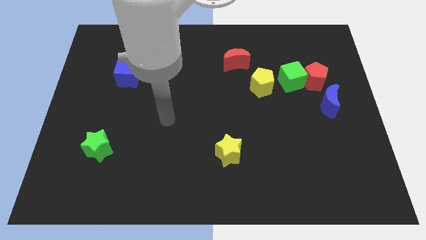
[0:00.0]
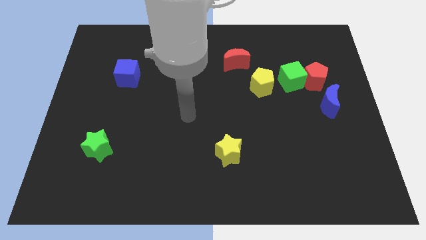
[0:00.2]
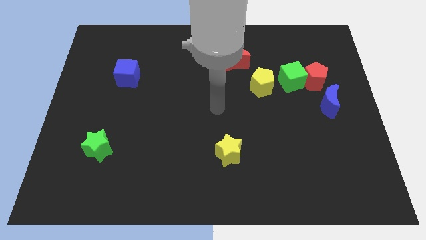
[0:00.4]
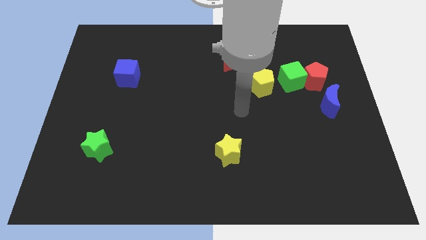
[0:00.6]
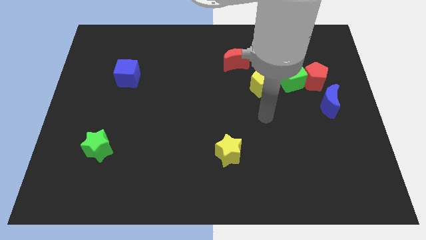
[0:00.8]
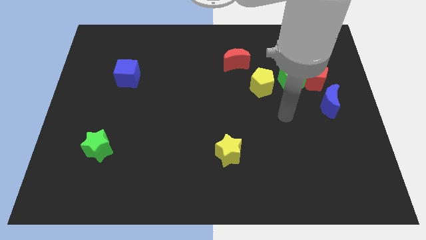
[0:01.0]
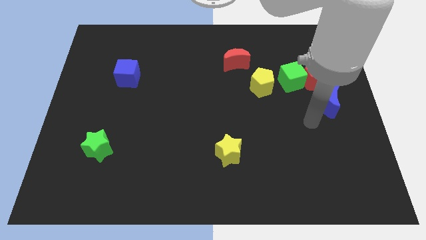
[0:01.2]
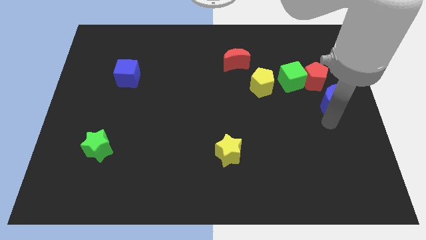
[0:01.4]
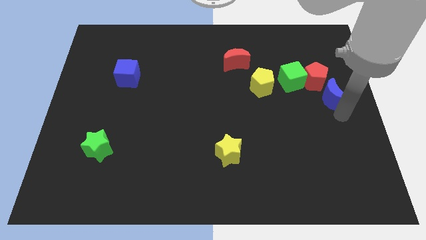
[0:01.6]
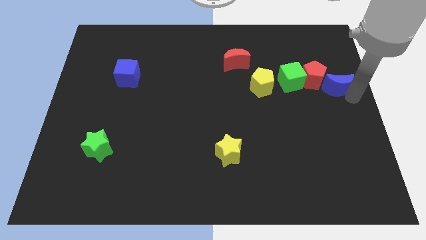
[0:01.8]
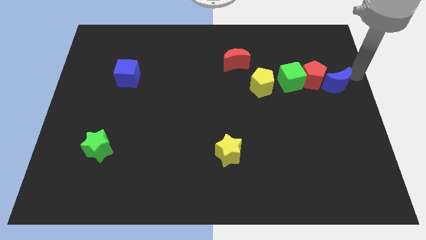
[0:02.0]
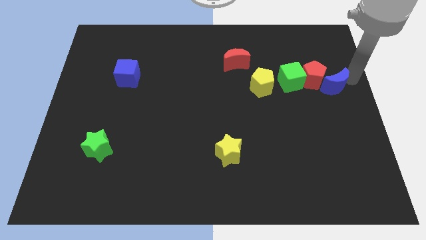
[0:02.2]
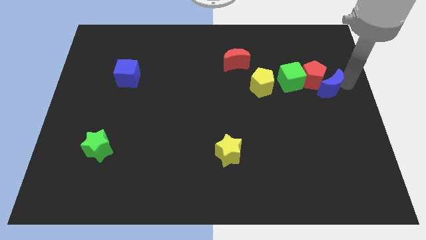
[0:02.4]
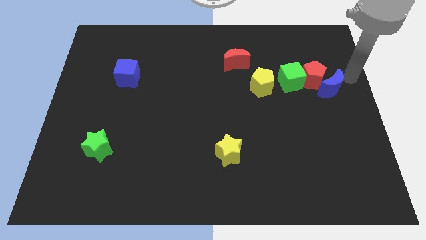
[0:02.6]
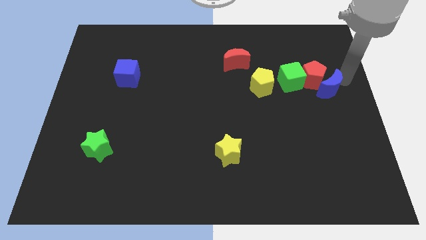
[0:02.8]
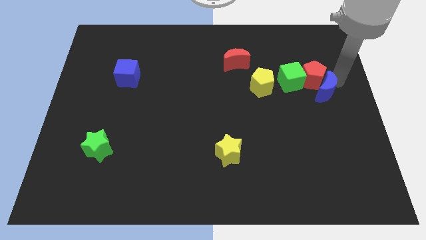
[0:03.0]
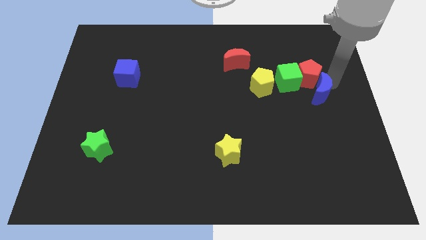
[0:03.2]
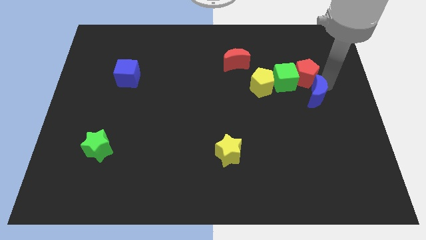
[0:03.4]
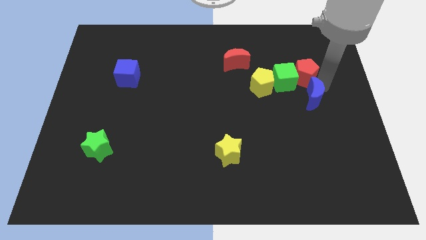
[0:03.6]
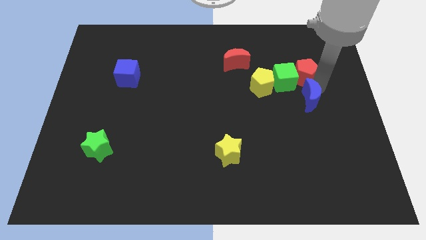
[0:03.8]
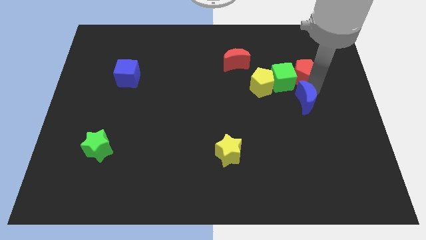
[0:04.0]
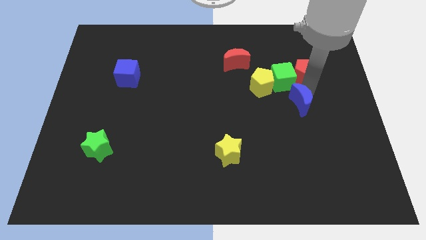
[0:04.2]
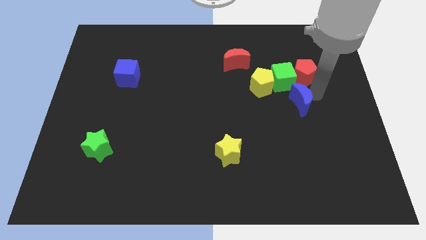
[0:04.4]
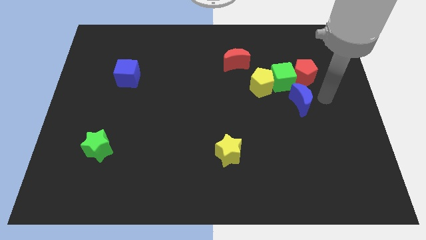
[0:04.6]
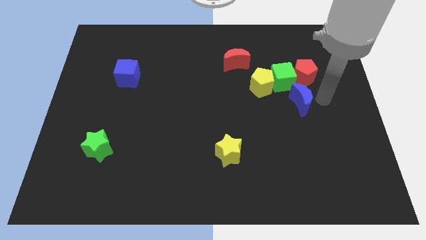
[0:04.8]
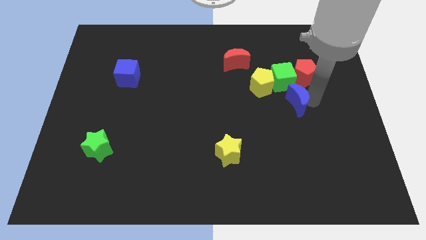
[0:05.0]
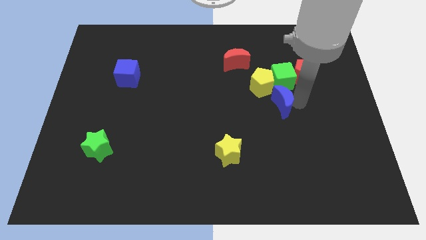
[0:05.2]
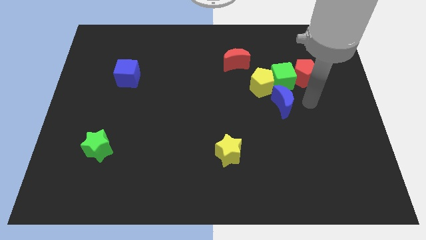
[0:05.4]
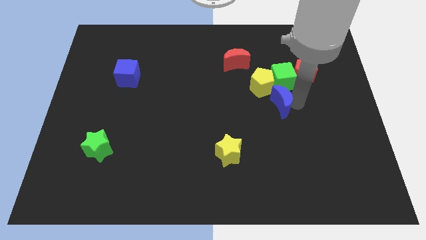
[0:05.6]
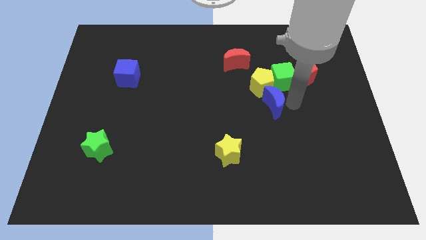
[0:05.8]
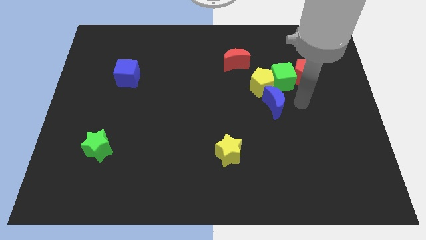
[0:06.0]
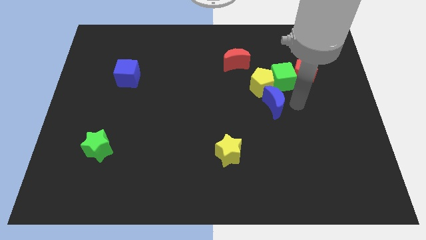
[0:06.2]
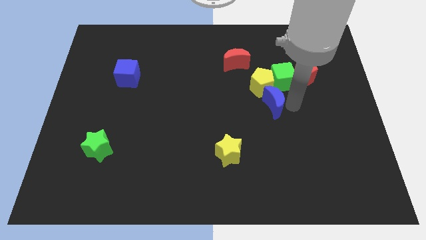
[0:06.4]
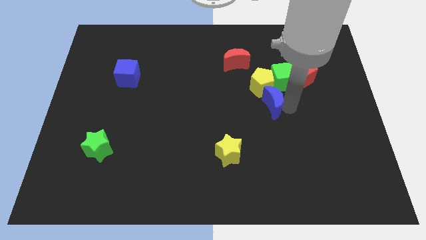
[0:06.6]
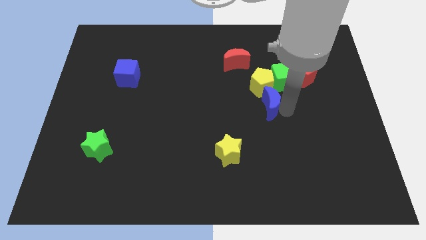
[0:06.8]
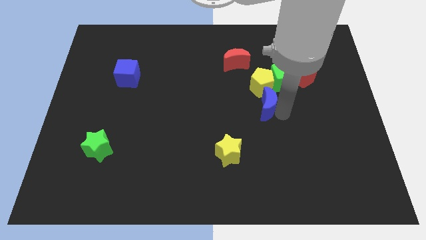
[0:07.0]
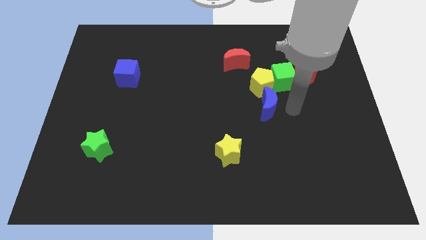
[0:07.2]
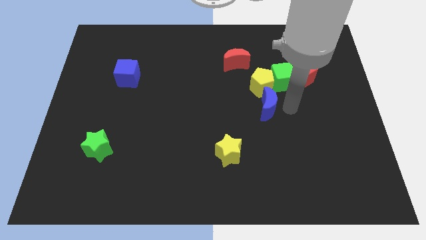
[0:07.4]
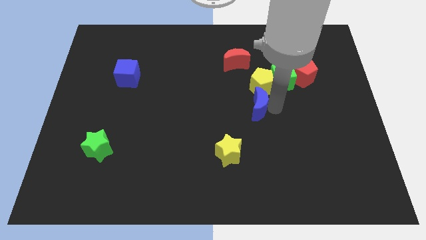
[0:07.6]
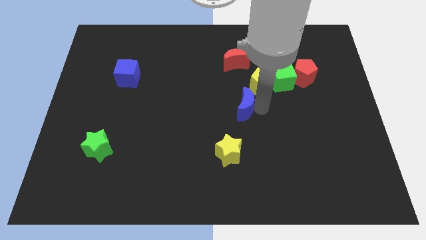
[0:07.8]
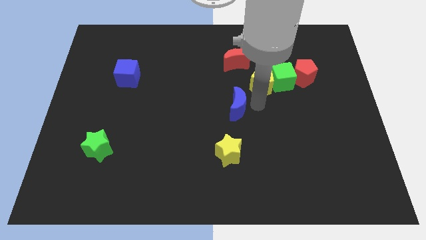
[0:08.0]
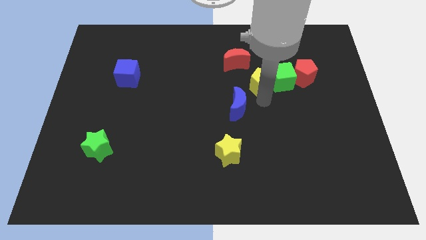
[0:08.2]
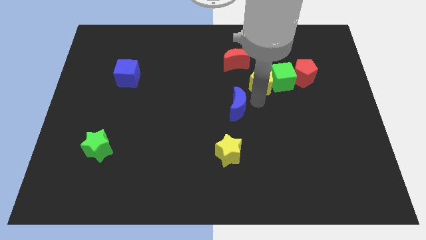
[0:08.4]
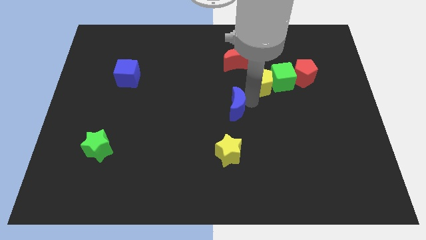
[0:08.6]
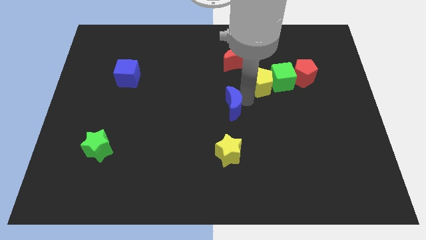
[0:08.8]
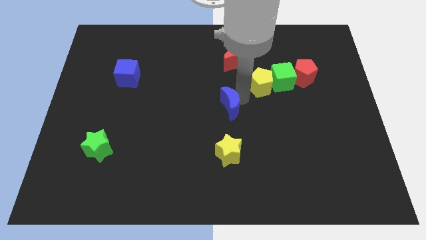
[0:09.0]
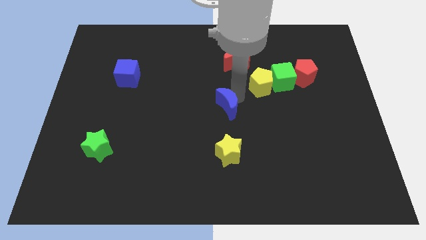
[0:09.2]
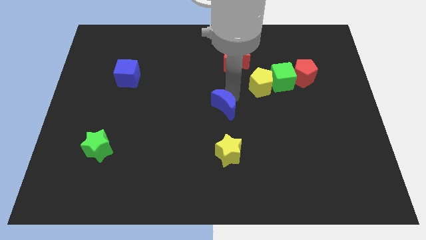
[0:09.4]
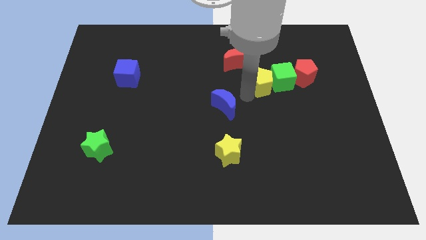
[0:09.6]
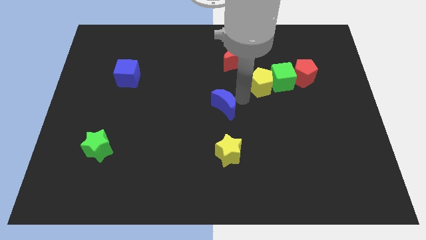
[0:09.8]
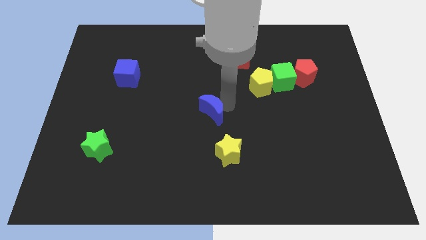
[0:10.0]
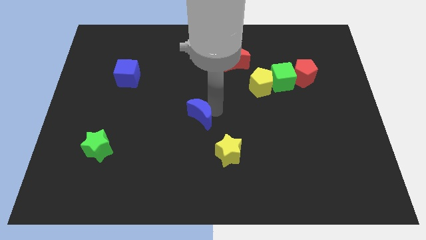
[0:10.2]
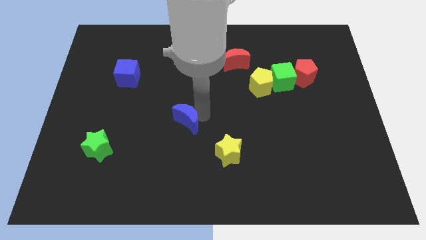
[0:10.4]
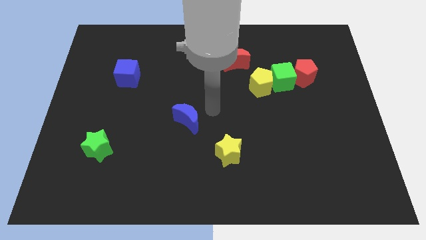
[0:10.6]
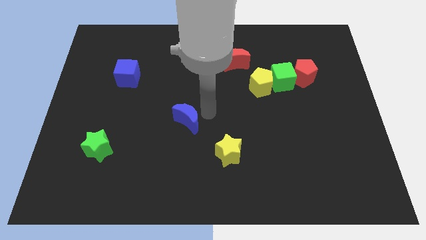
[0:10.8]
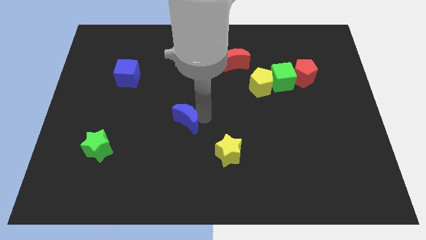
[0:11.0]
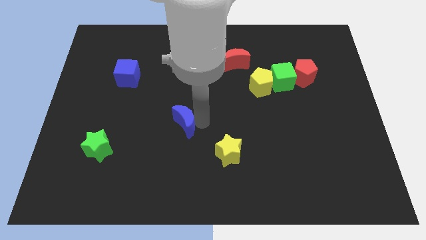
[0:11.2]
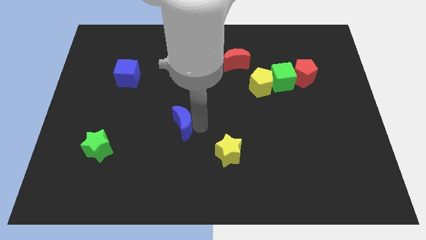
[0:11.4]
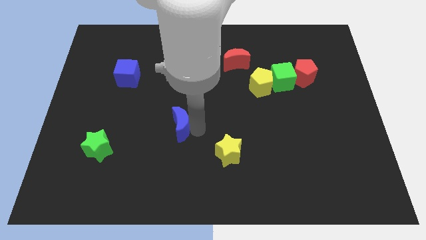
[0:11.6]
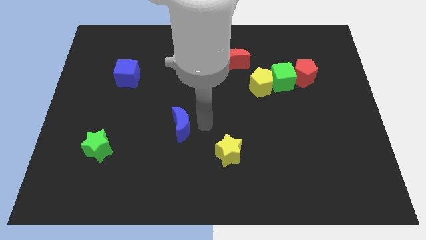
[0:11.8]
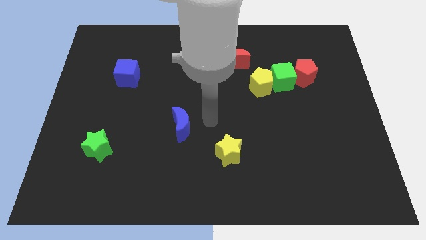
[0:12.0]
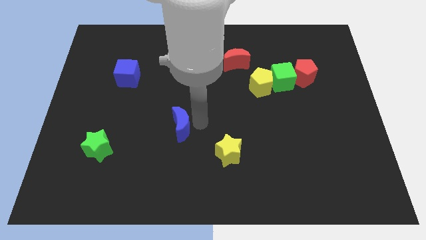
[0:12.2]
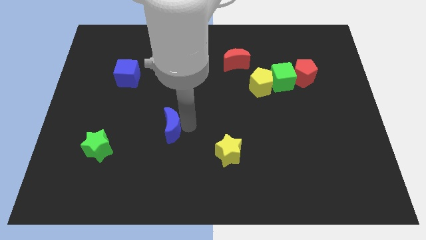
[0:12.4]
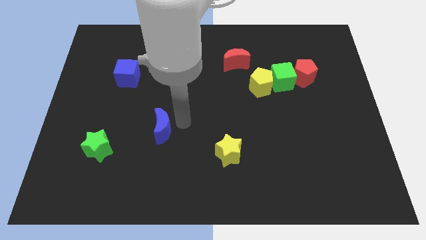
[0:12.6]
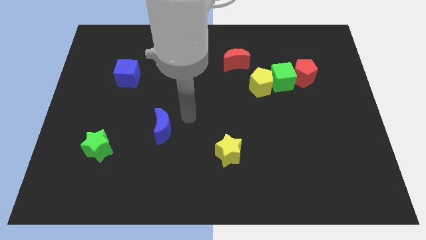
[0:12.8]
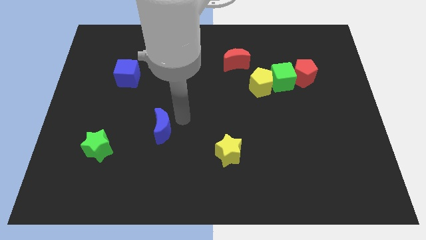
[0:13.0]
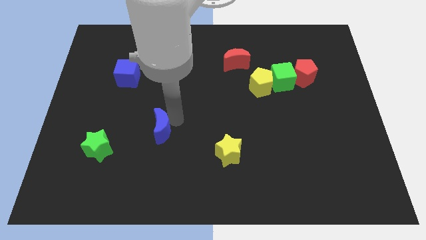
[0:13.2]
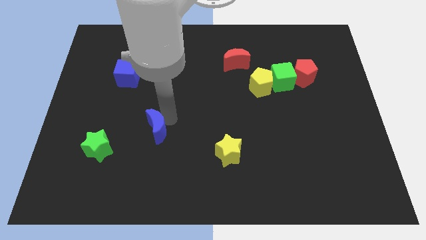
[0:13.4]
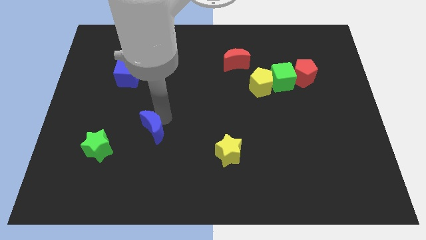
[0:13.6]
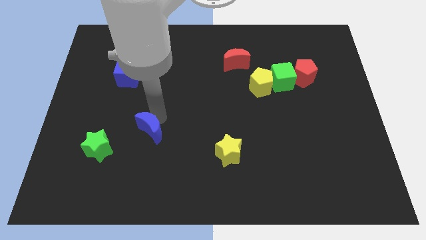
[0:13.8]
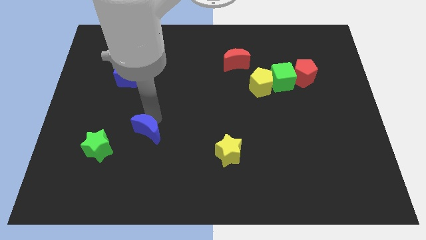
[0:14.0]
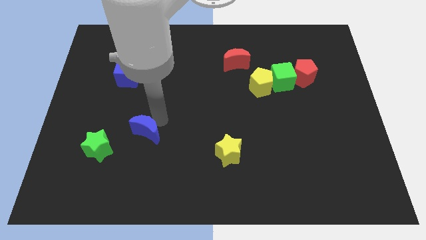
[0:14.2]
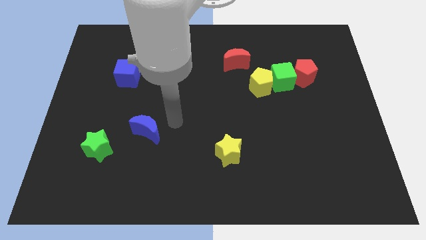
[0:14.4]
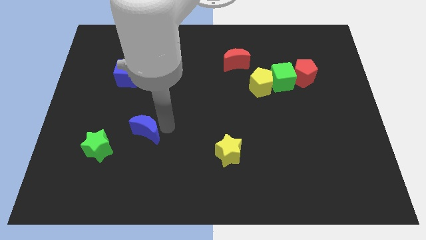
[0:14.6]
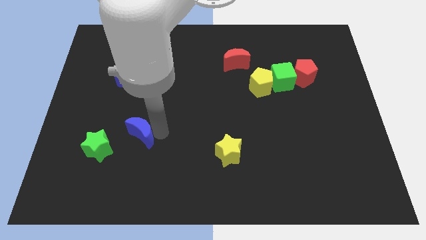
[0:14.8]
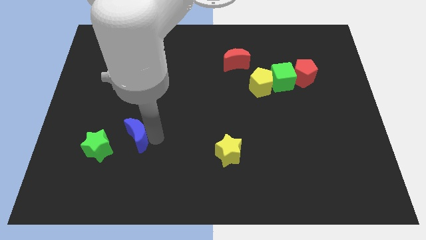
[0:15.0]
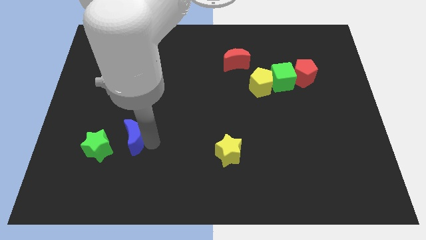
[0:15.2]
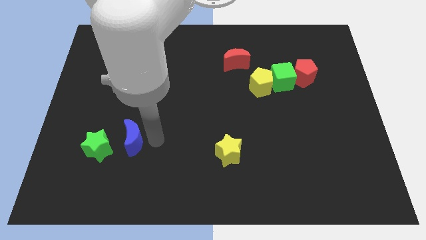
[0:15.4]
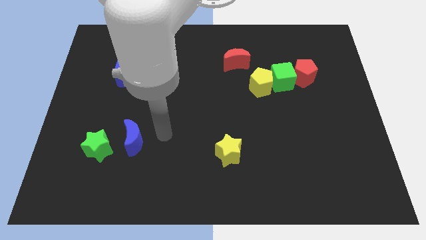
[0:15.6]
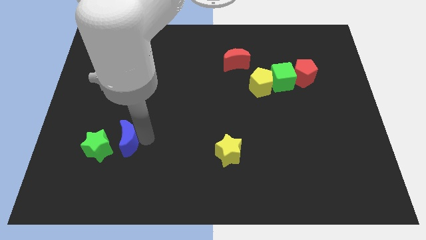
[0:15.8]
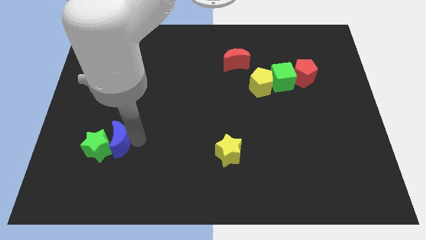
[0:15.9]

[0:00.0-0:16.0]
move the blue moon close to the green star
